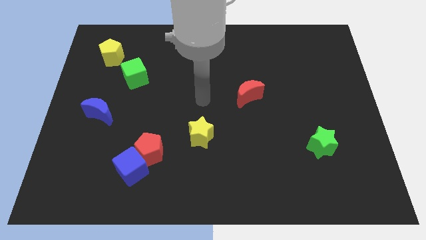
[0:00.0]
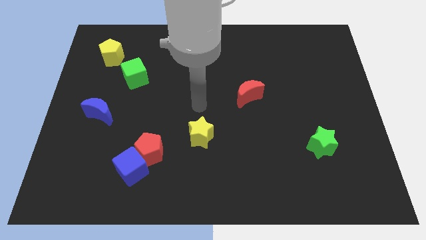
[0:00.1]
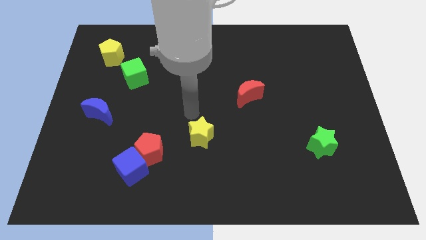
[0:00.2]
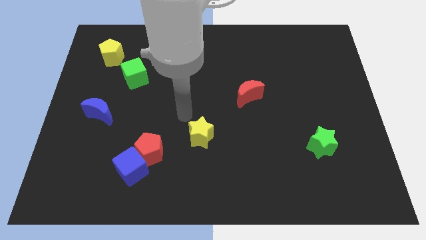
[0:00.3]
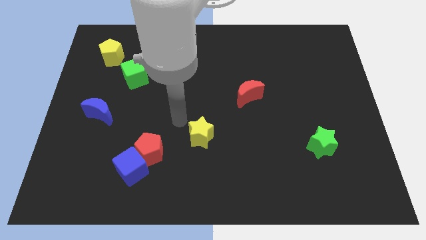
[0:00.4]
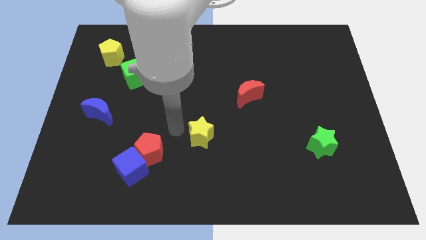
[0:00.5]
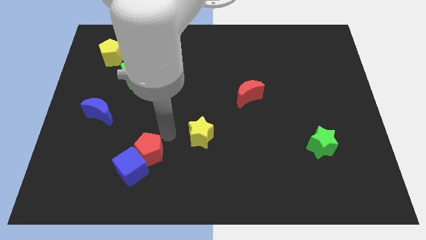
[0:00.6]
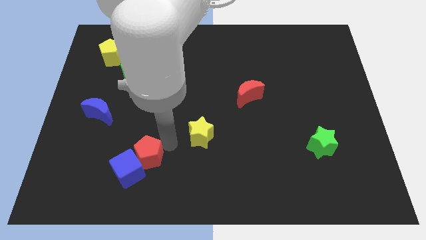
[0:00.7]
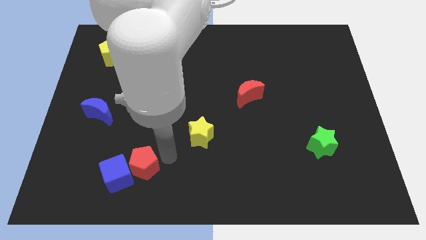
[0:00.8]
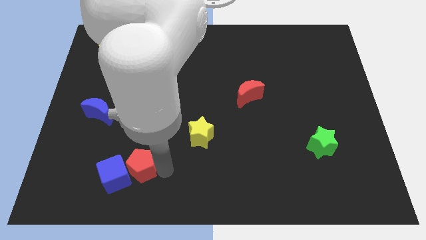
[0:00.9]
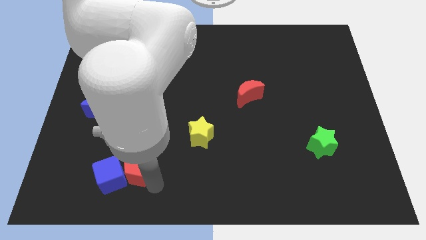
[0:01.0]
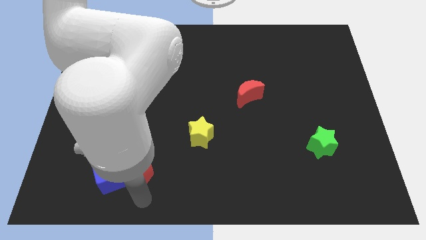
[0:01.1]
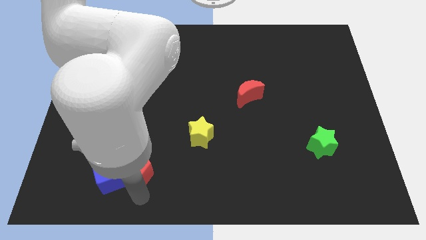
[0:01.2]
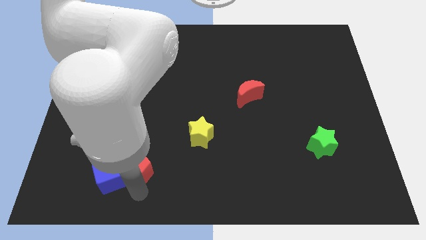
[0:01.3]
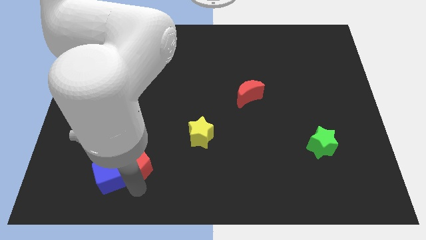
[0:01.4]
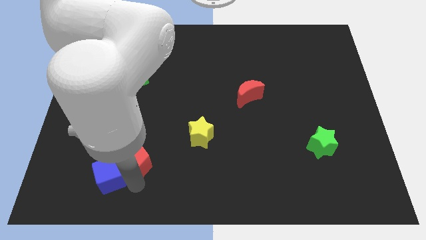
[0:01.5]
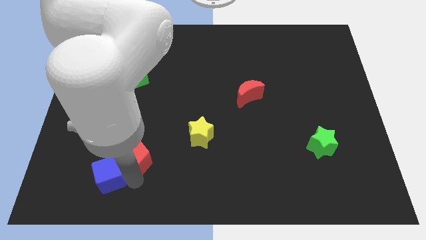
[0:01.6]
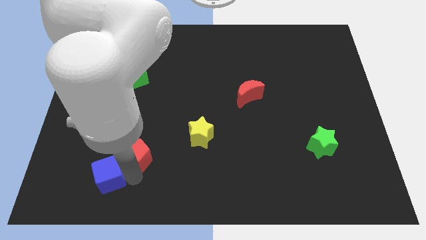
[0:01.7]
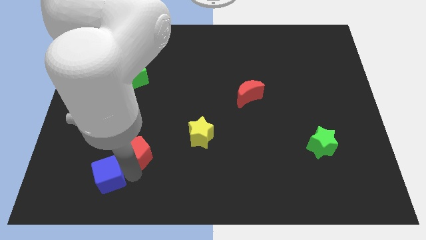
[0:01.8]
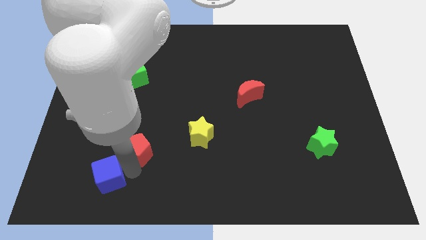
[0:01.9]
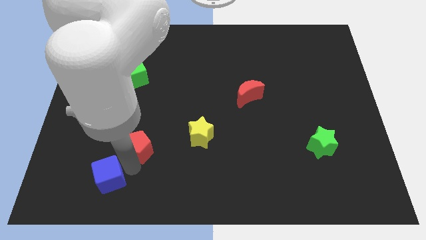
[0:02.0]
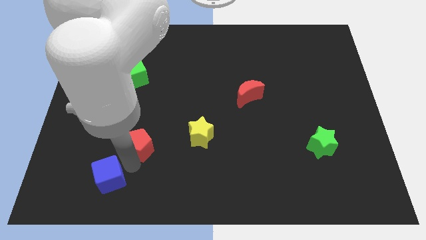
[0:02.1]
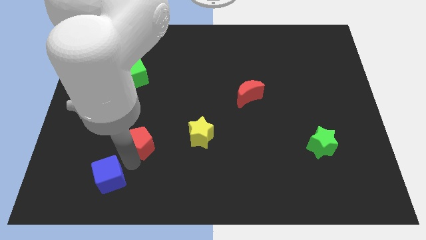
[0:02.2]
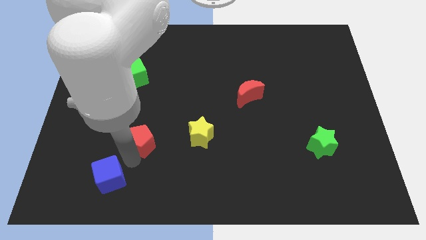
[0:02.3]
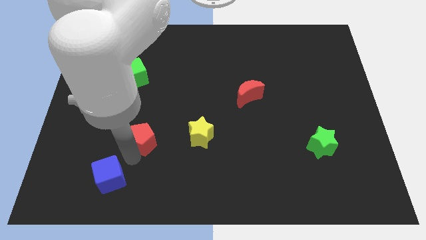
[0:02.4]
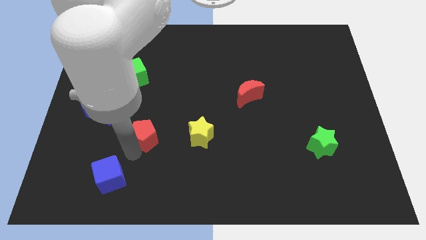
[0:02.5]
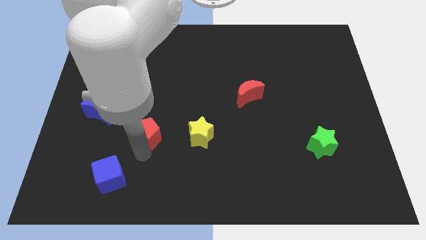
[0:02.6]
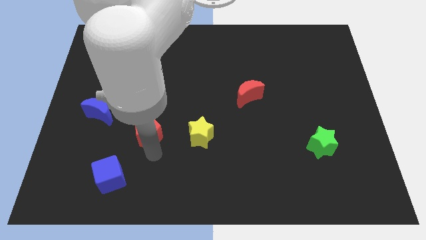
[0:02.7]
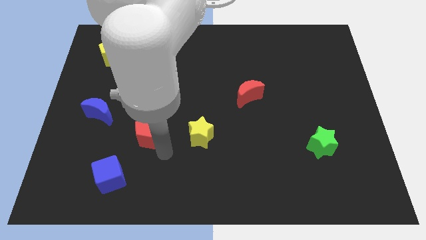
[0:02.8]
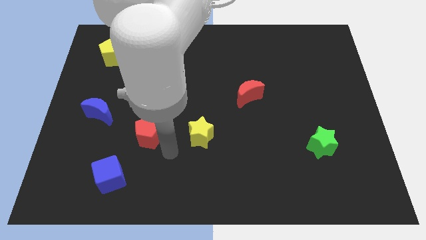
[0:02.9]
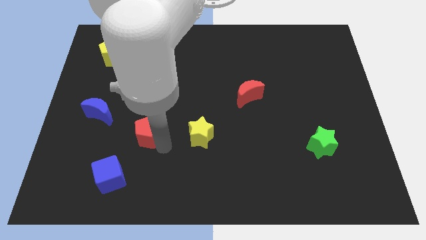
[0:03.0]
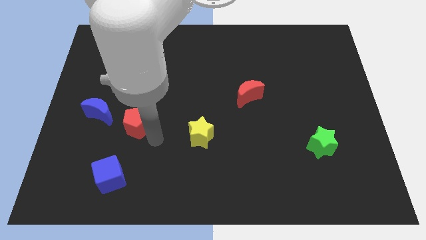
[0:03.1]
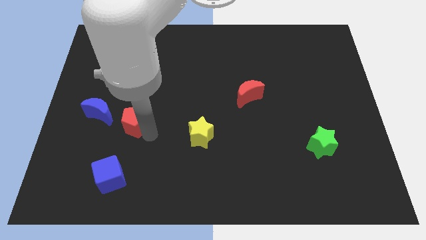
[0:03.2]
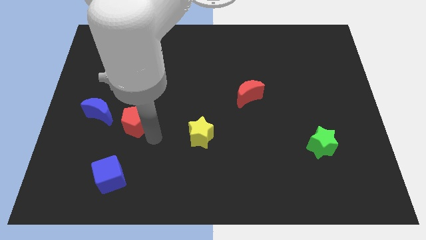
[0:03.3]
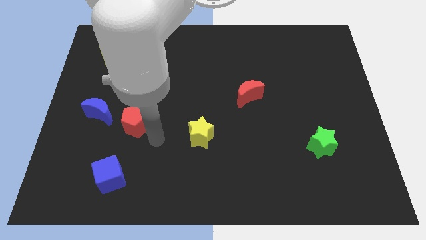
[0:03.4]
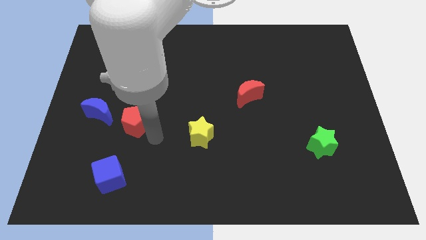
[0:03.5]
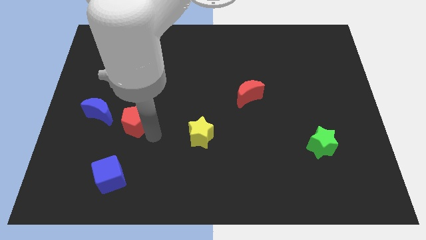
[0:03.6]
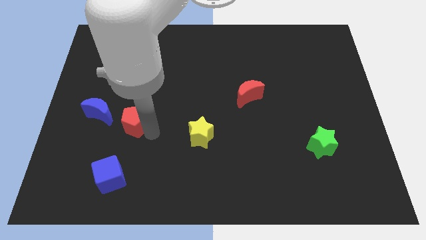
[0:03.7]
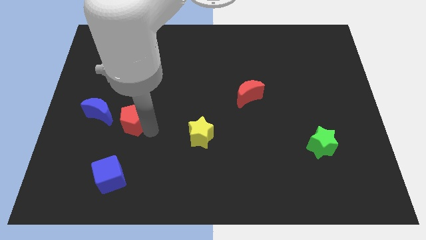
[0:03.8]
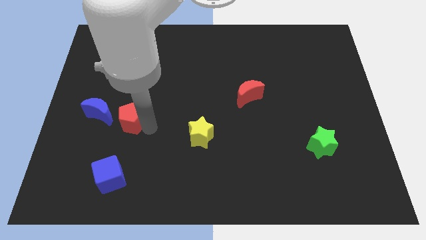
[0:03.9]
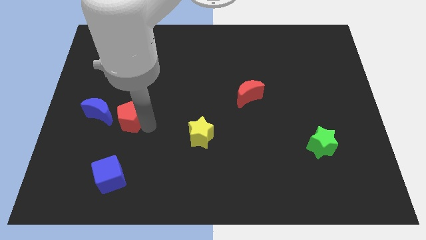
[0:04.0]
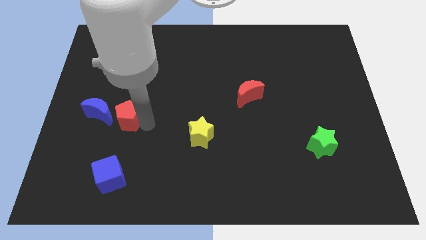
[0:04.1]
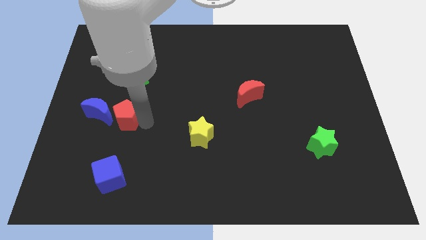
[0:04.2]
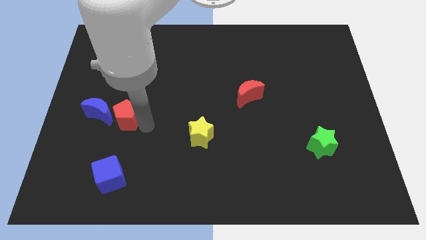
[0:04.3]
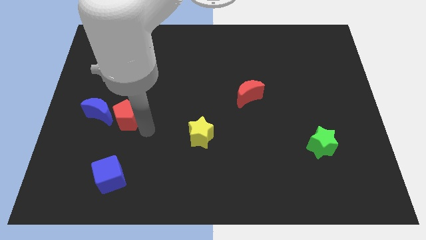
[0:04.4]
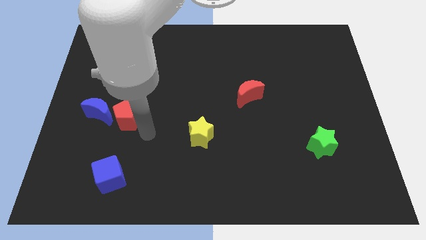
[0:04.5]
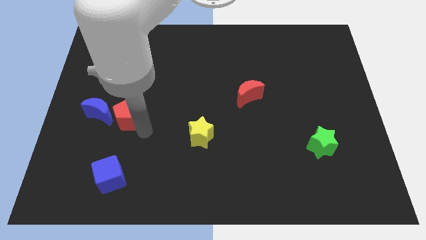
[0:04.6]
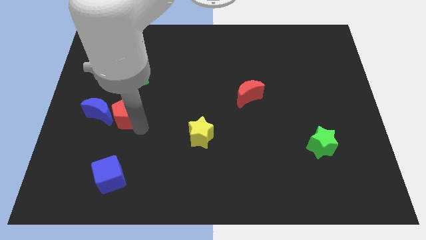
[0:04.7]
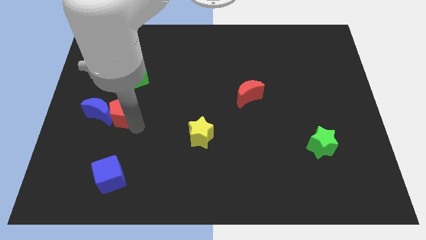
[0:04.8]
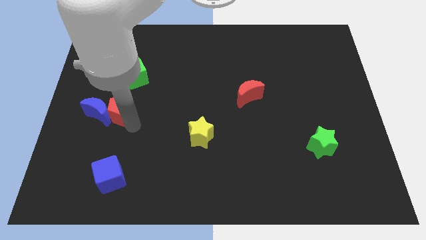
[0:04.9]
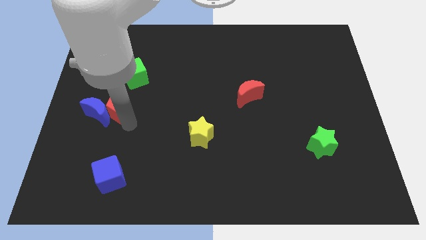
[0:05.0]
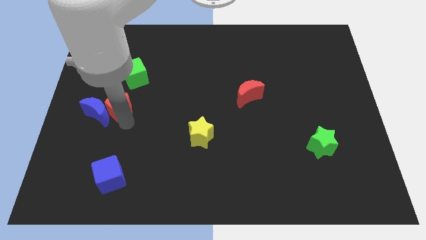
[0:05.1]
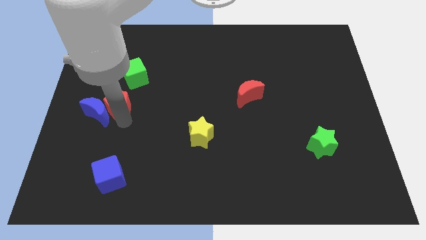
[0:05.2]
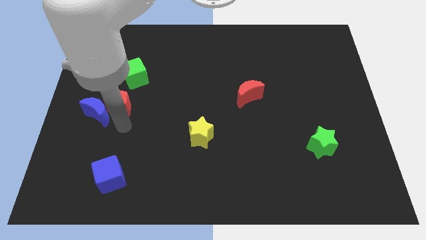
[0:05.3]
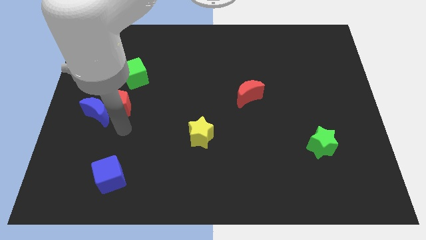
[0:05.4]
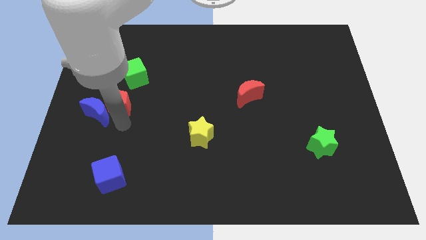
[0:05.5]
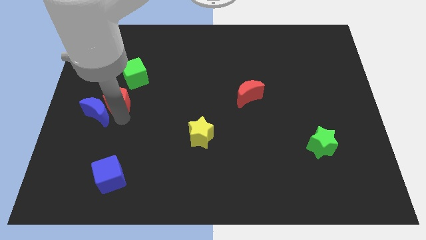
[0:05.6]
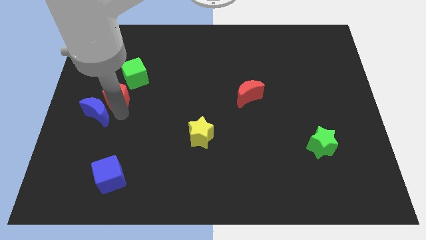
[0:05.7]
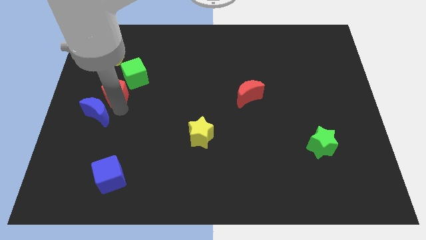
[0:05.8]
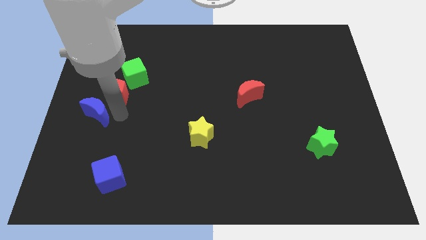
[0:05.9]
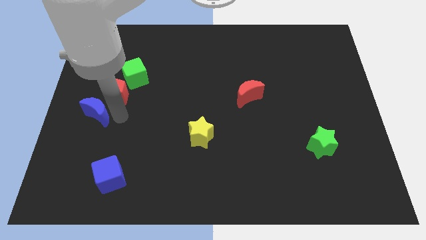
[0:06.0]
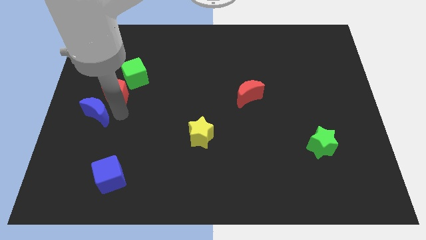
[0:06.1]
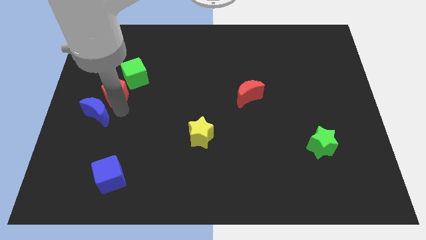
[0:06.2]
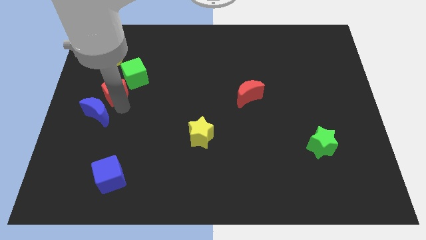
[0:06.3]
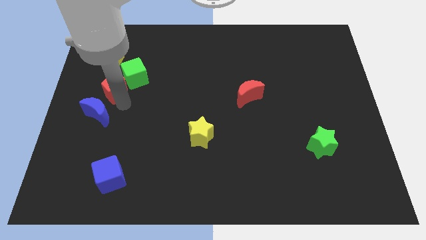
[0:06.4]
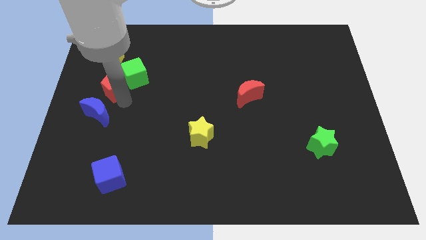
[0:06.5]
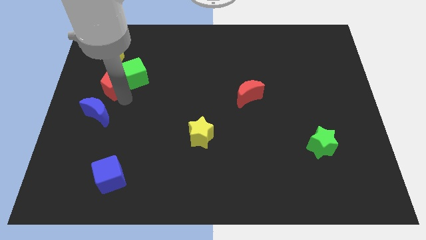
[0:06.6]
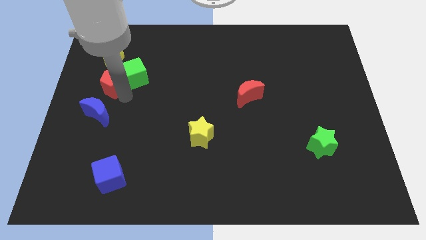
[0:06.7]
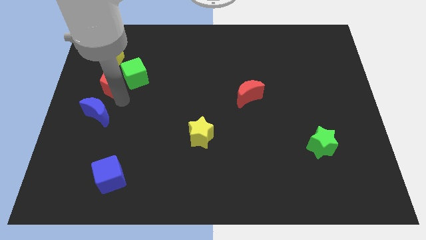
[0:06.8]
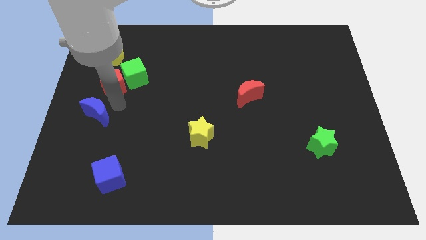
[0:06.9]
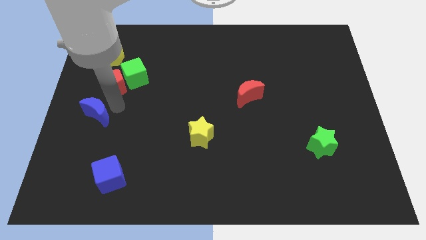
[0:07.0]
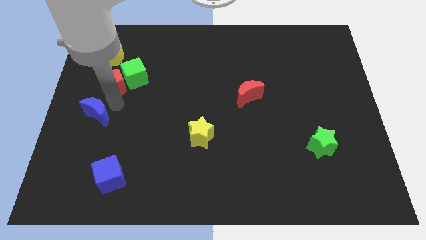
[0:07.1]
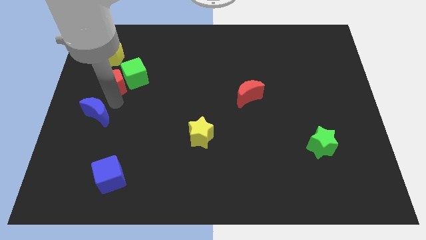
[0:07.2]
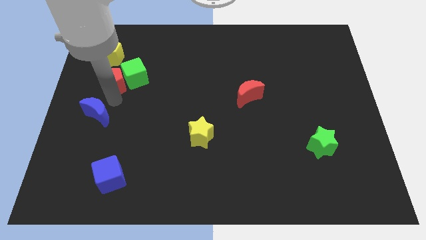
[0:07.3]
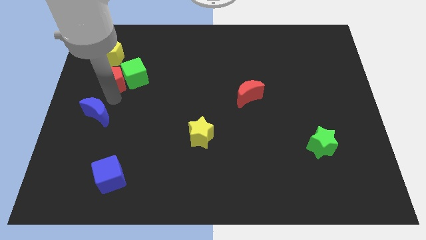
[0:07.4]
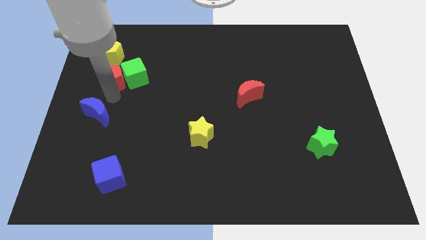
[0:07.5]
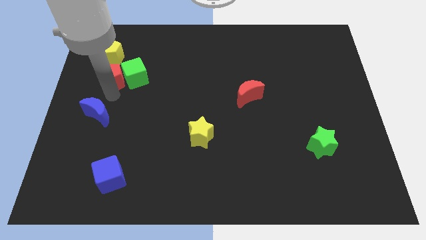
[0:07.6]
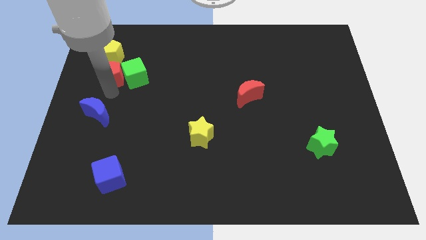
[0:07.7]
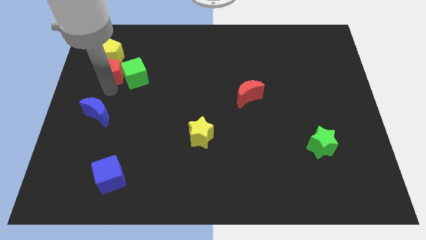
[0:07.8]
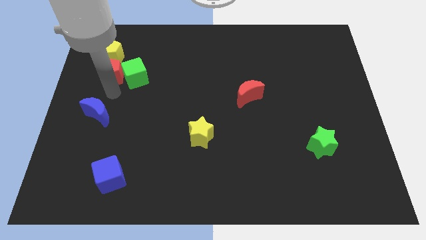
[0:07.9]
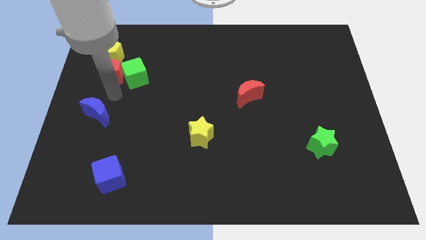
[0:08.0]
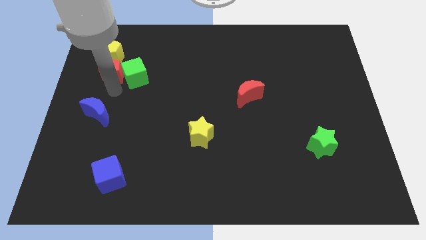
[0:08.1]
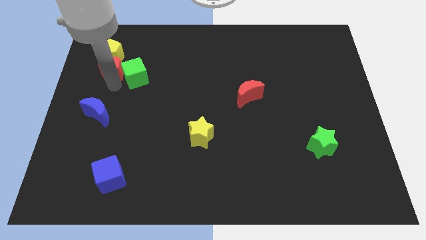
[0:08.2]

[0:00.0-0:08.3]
slide the red pentagon to the yellow pentagon
